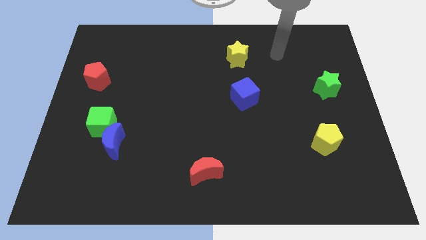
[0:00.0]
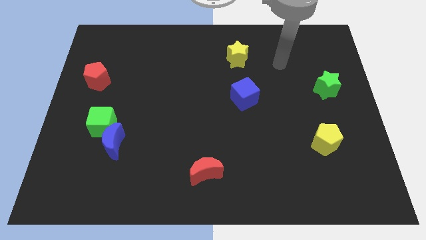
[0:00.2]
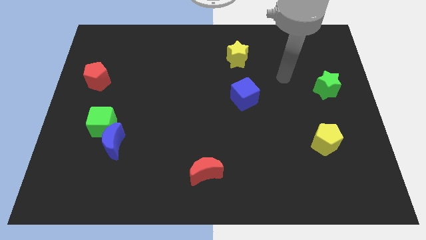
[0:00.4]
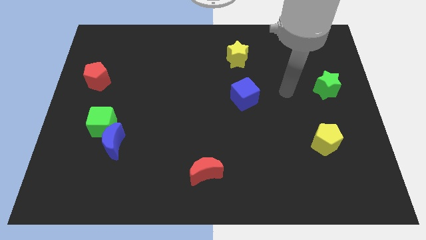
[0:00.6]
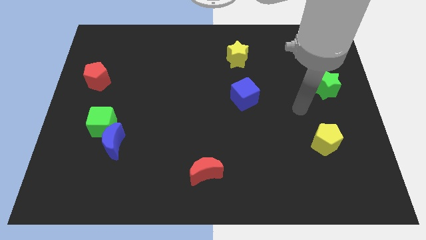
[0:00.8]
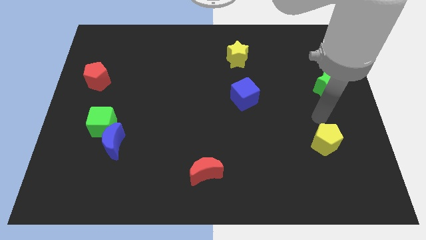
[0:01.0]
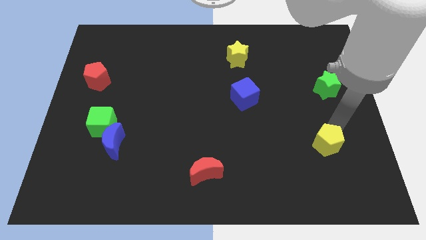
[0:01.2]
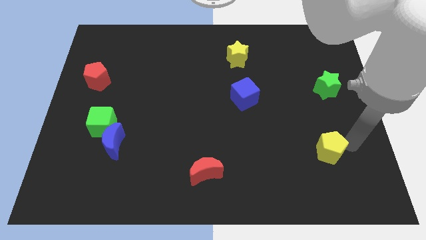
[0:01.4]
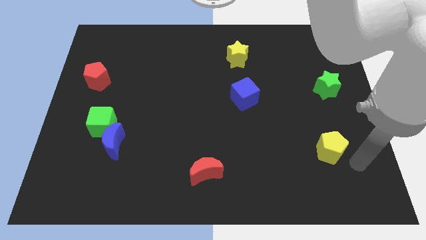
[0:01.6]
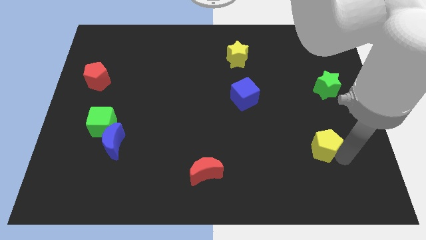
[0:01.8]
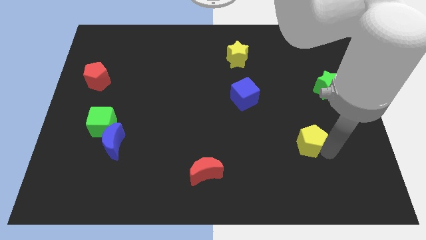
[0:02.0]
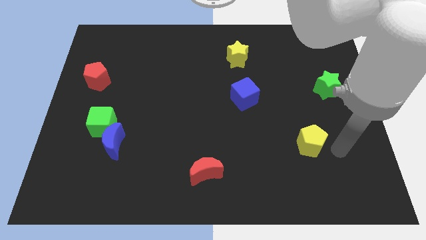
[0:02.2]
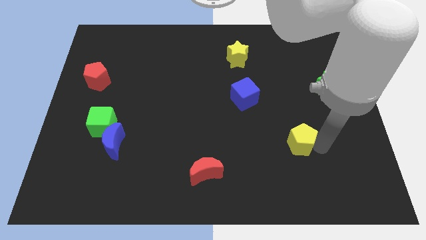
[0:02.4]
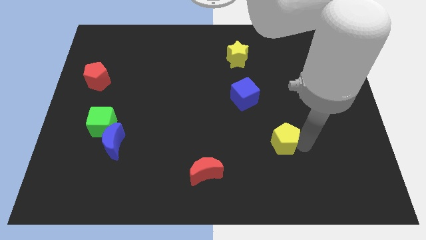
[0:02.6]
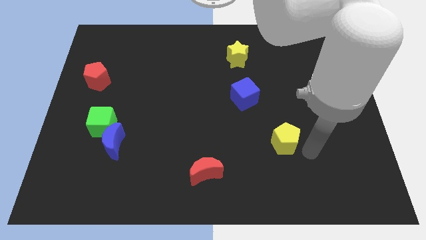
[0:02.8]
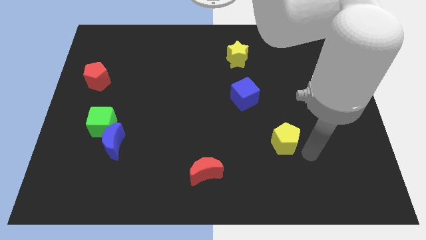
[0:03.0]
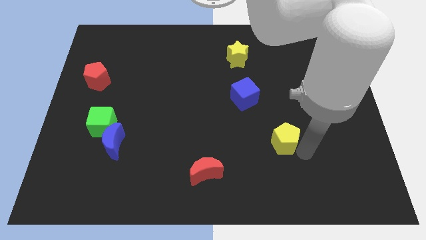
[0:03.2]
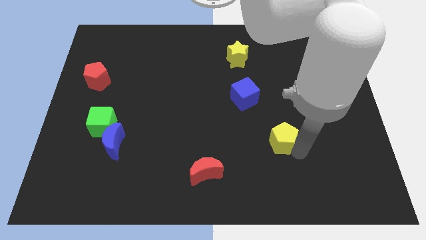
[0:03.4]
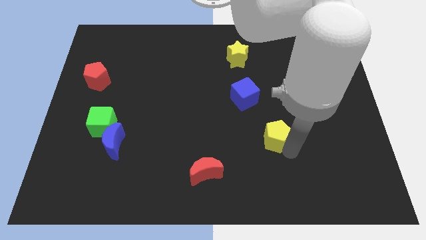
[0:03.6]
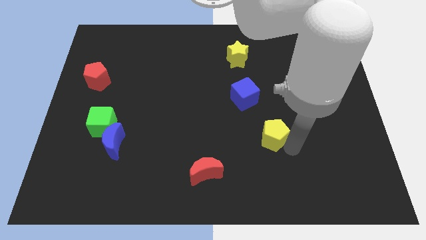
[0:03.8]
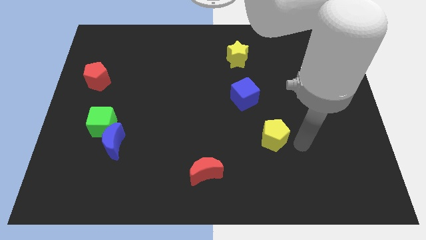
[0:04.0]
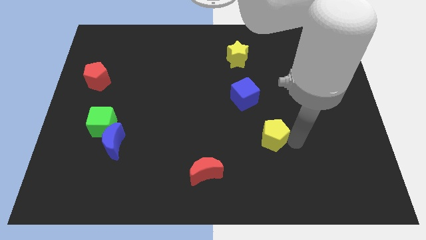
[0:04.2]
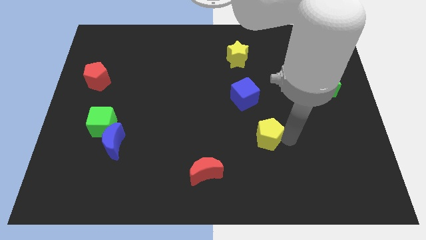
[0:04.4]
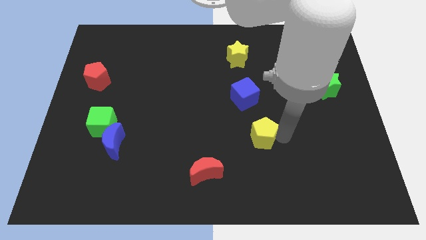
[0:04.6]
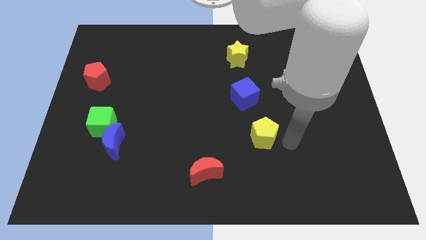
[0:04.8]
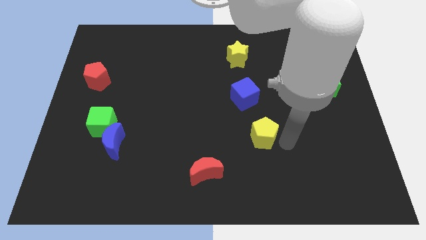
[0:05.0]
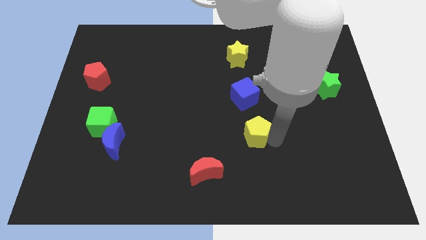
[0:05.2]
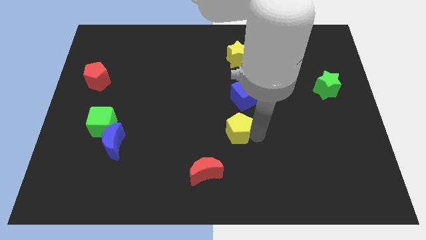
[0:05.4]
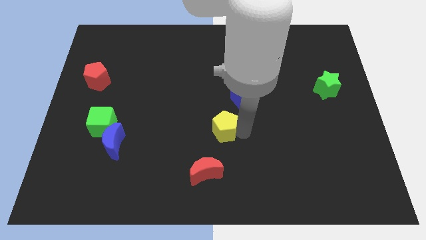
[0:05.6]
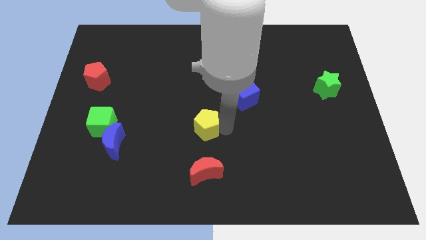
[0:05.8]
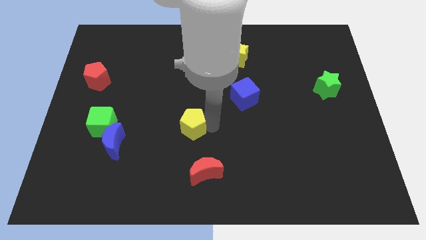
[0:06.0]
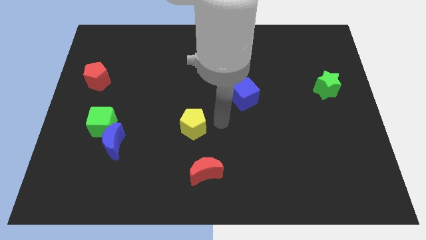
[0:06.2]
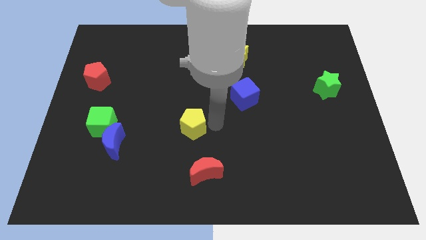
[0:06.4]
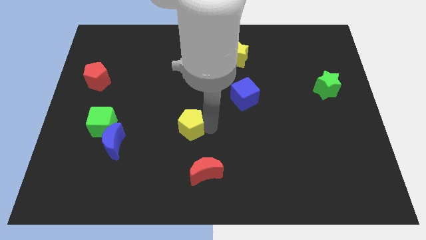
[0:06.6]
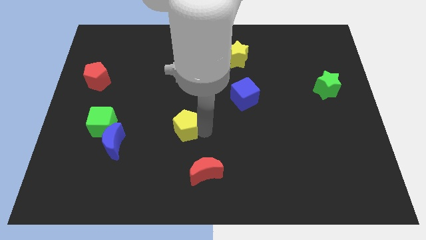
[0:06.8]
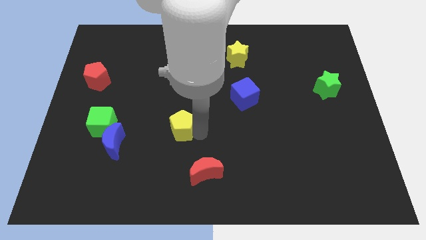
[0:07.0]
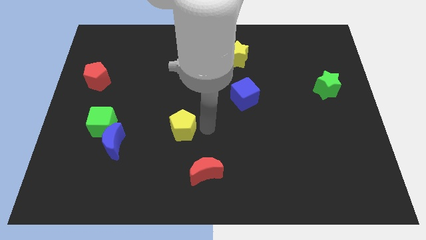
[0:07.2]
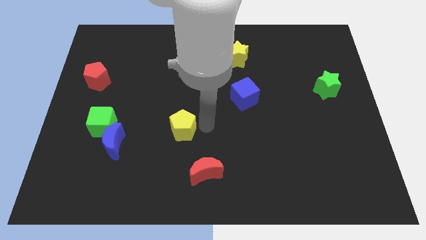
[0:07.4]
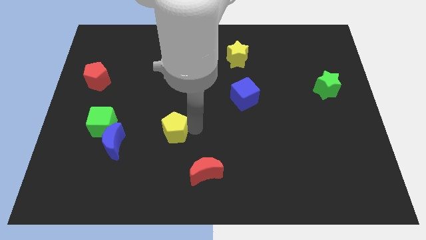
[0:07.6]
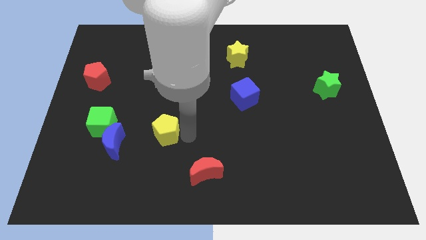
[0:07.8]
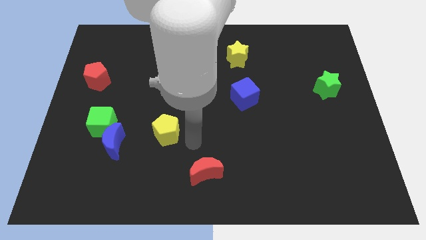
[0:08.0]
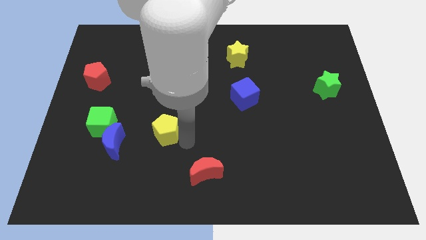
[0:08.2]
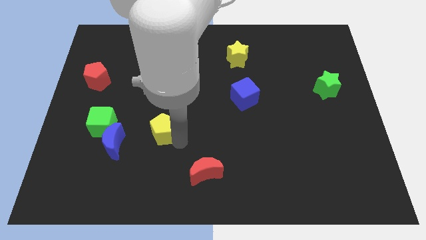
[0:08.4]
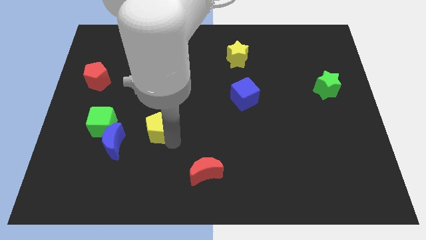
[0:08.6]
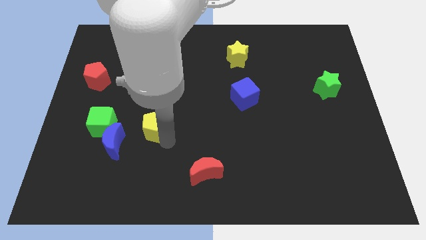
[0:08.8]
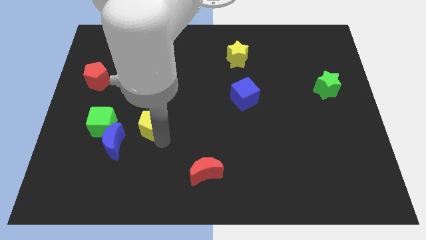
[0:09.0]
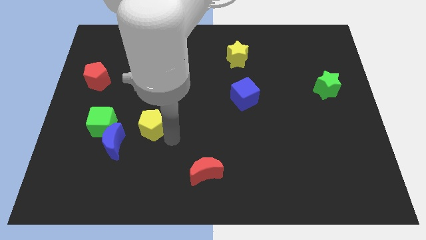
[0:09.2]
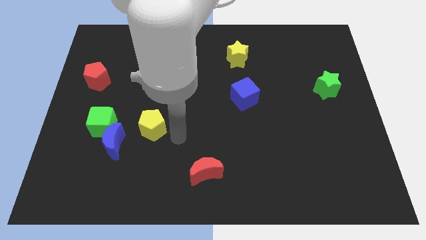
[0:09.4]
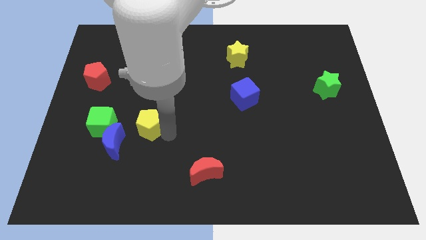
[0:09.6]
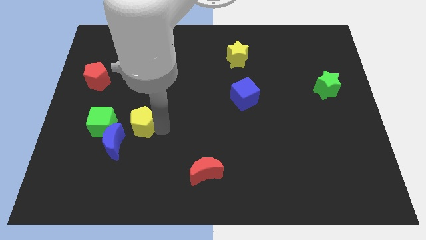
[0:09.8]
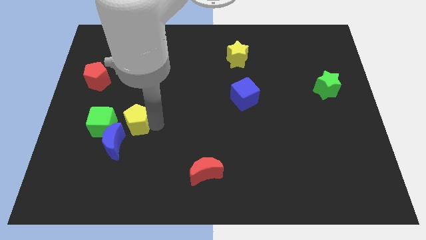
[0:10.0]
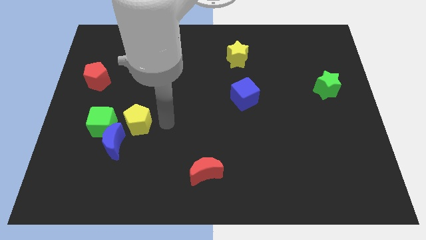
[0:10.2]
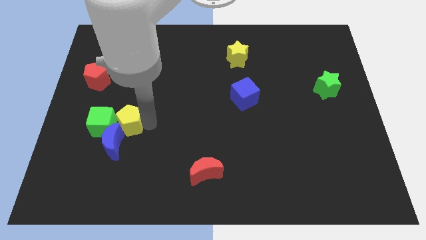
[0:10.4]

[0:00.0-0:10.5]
slide the yellow pentagon next to the green cube

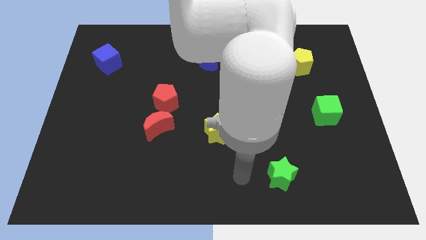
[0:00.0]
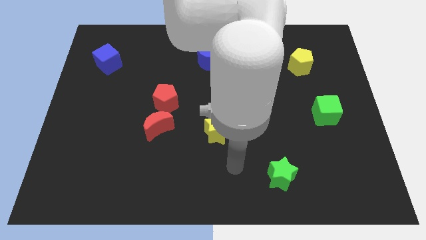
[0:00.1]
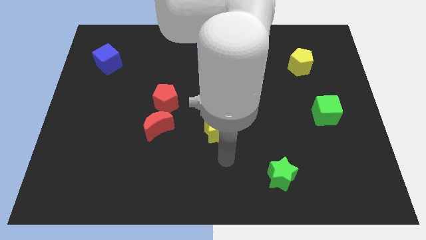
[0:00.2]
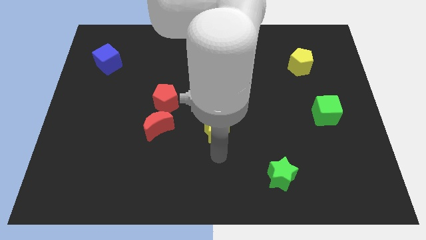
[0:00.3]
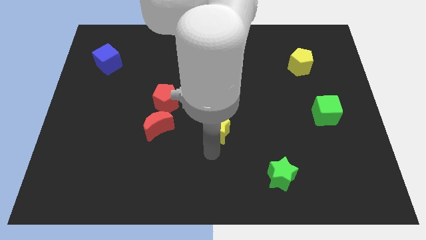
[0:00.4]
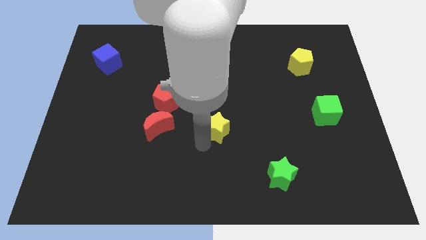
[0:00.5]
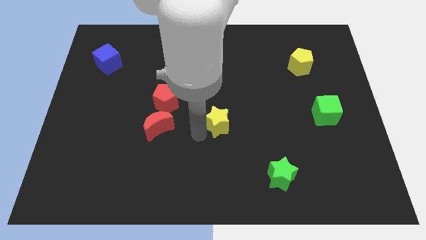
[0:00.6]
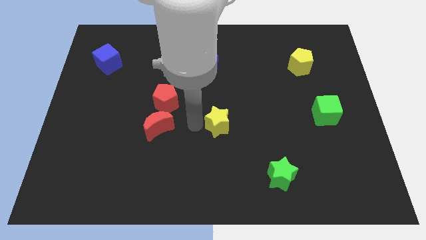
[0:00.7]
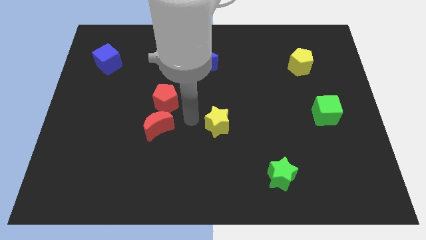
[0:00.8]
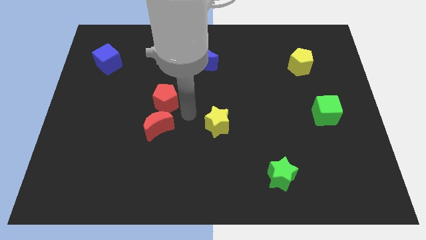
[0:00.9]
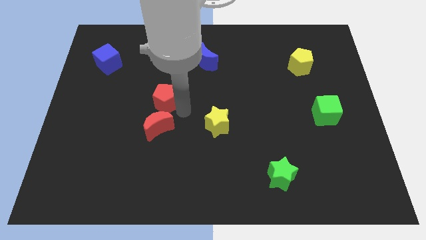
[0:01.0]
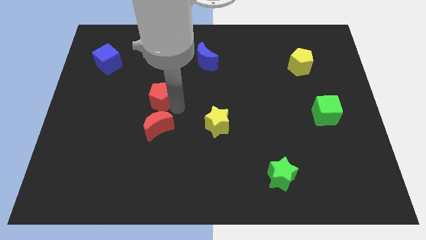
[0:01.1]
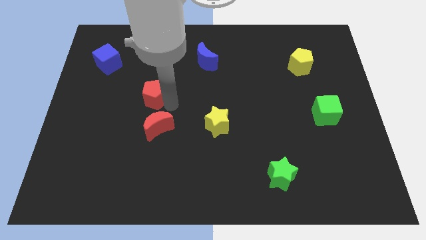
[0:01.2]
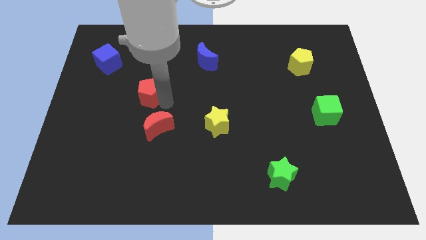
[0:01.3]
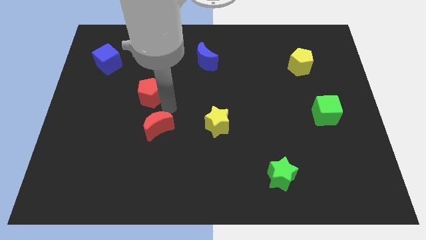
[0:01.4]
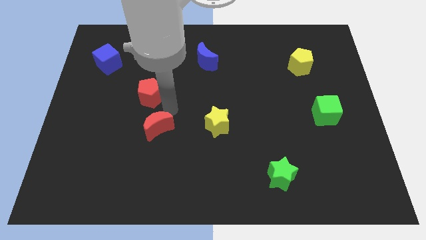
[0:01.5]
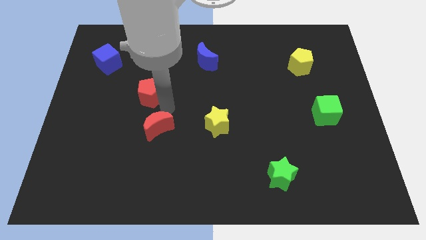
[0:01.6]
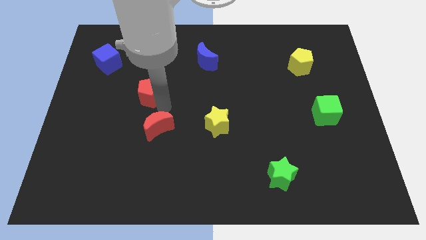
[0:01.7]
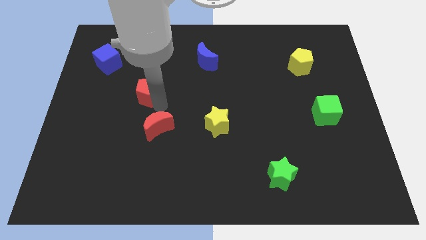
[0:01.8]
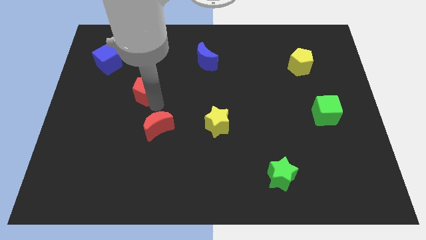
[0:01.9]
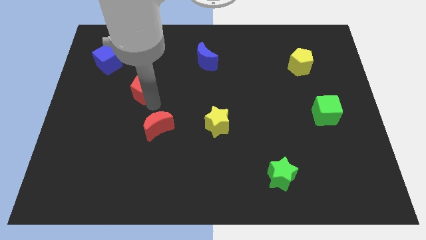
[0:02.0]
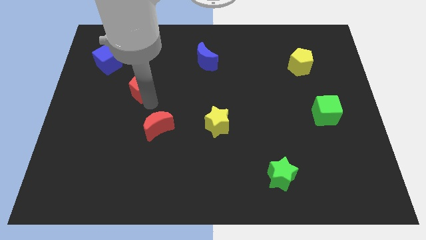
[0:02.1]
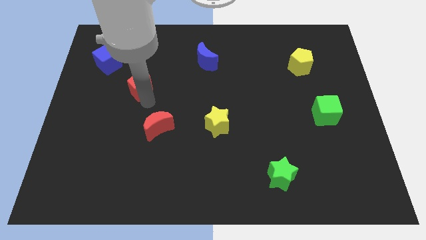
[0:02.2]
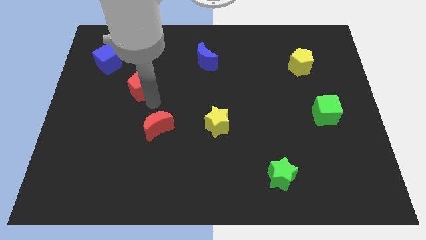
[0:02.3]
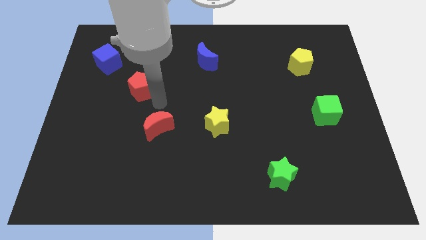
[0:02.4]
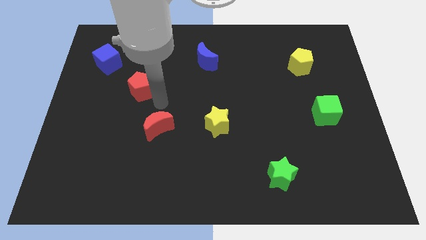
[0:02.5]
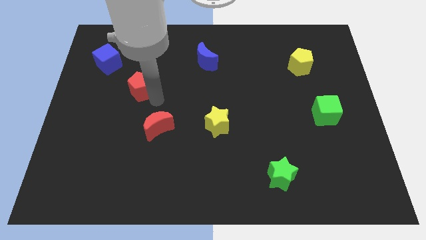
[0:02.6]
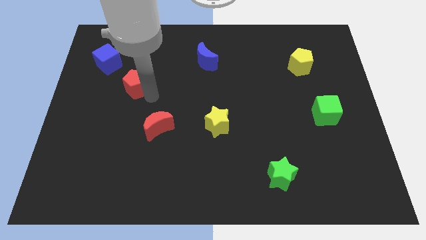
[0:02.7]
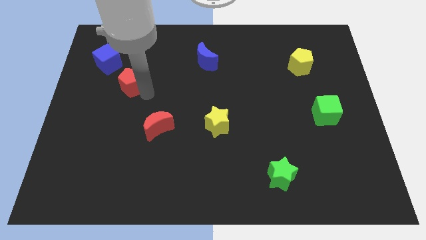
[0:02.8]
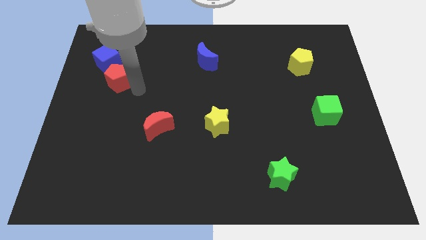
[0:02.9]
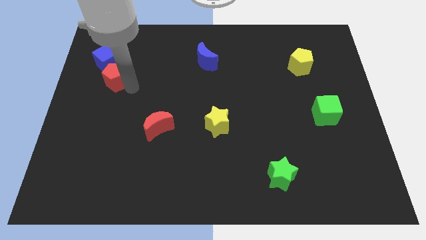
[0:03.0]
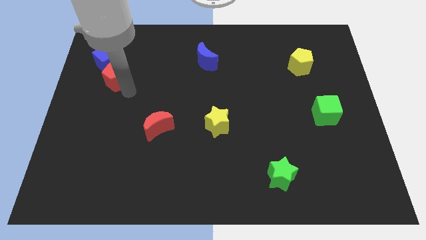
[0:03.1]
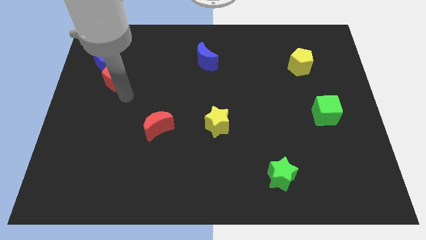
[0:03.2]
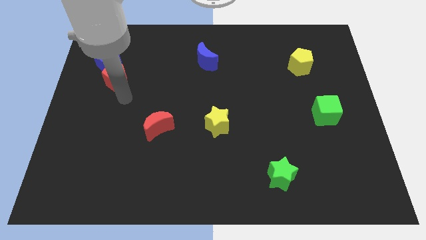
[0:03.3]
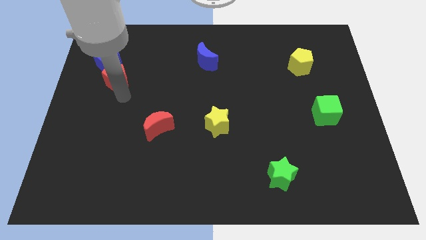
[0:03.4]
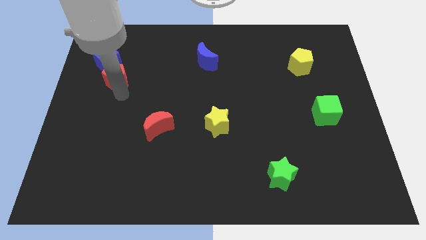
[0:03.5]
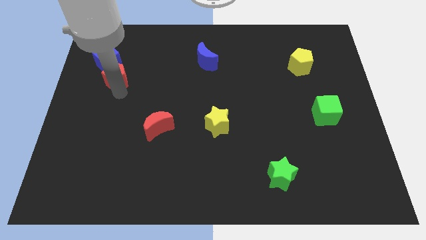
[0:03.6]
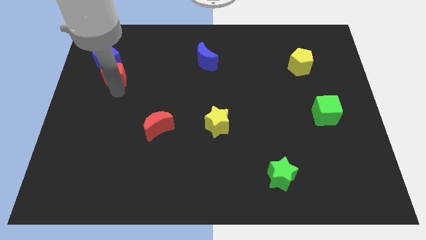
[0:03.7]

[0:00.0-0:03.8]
move the red pentagon towards the blue cube
